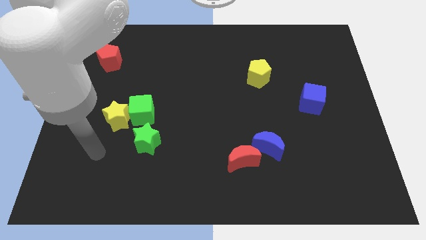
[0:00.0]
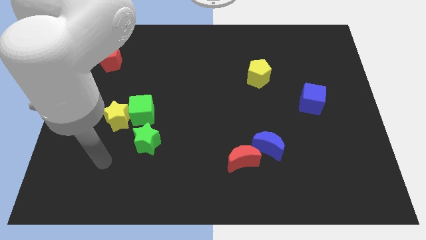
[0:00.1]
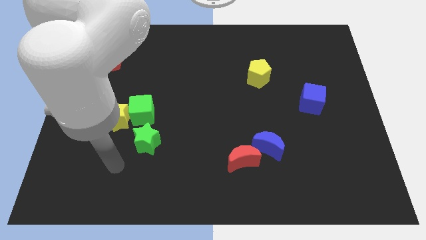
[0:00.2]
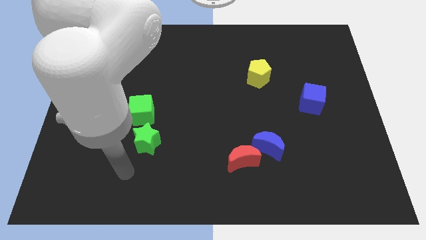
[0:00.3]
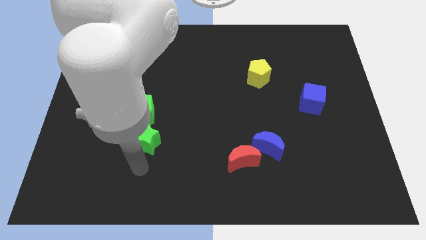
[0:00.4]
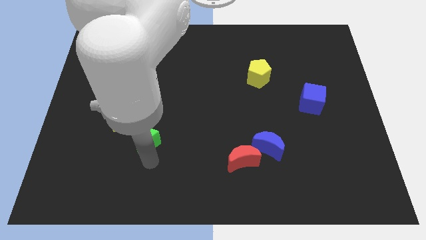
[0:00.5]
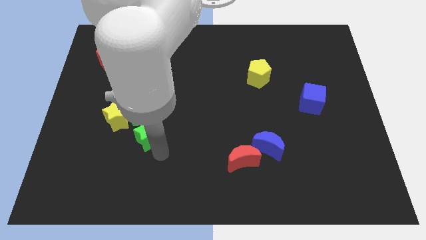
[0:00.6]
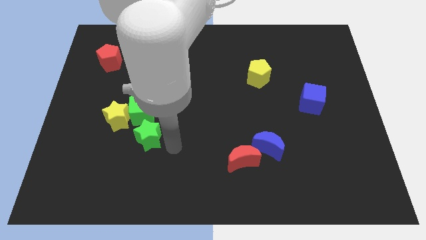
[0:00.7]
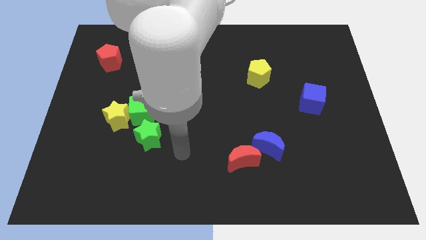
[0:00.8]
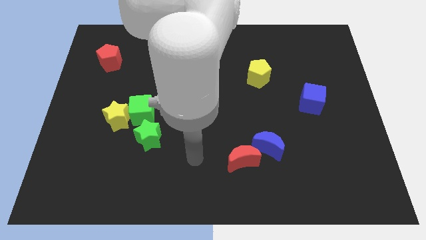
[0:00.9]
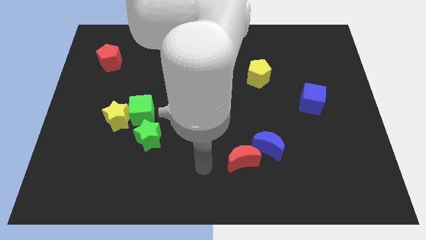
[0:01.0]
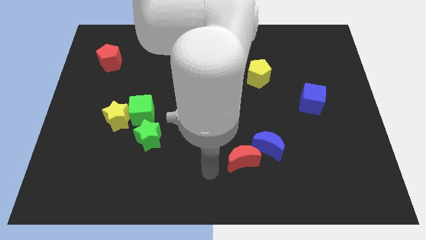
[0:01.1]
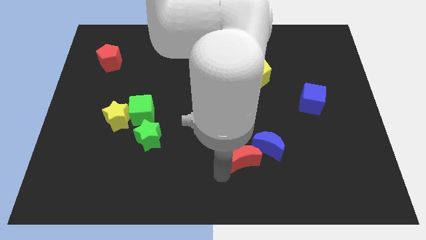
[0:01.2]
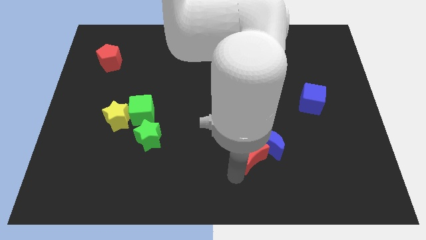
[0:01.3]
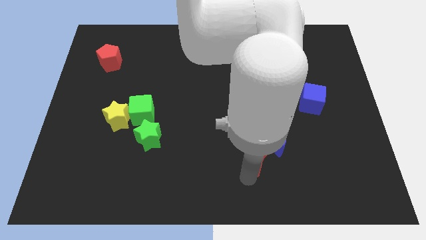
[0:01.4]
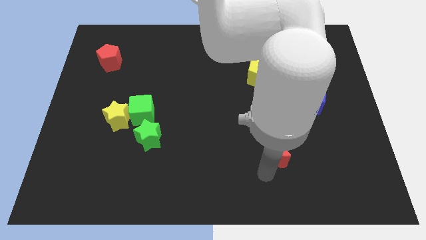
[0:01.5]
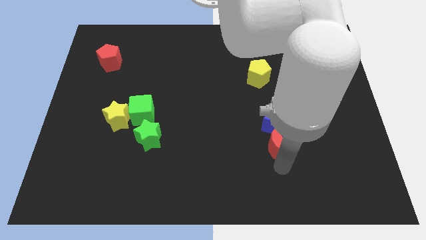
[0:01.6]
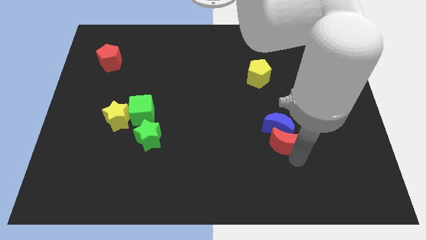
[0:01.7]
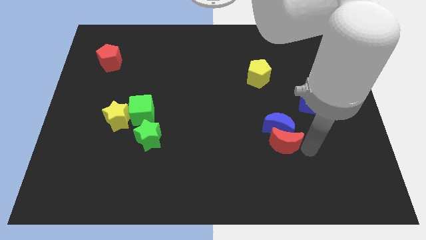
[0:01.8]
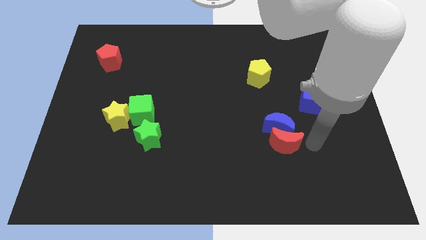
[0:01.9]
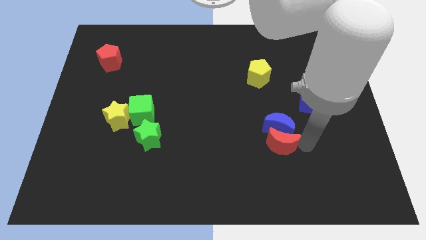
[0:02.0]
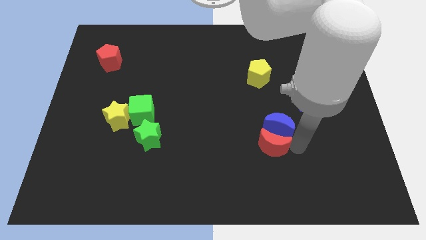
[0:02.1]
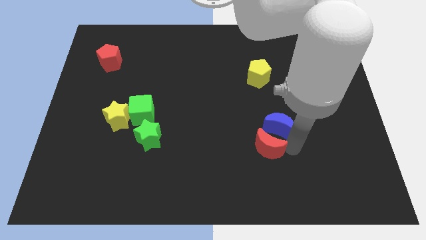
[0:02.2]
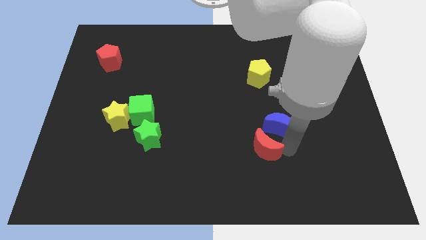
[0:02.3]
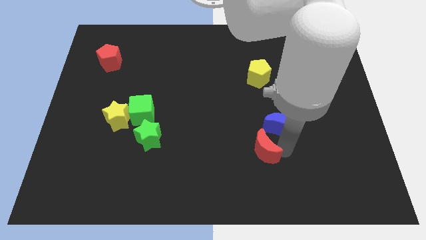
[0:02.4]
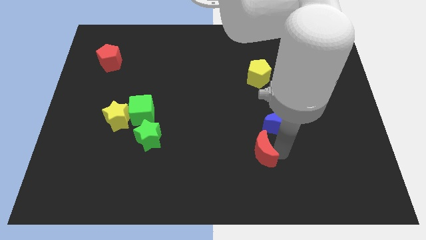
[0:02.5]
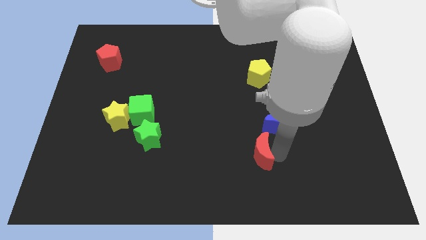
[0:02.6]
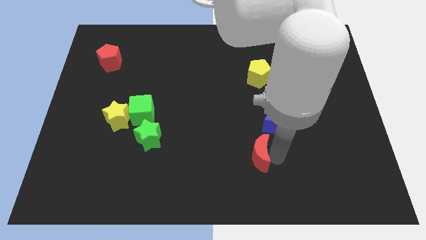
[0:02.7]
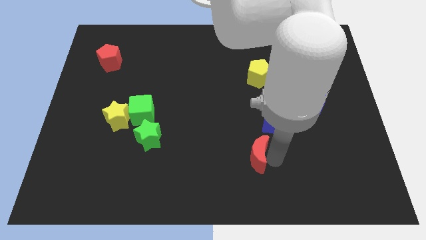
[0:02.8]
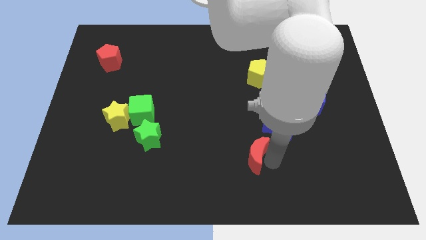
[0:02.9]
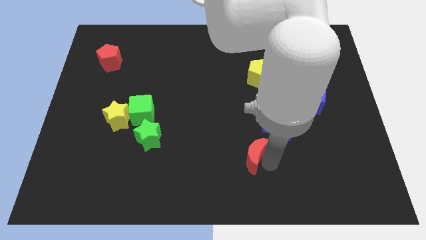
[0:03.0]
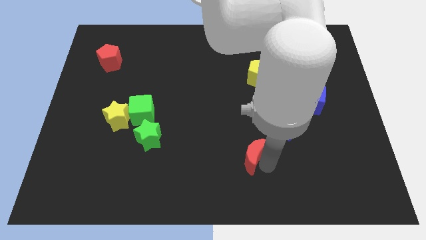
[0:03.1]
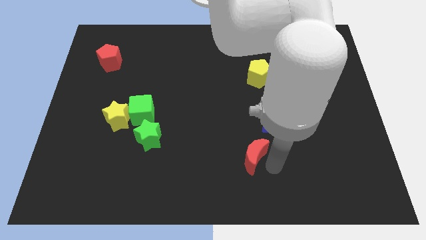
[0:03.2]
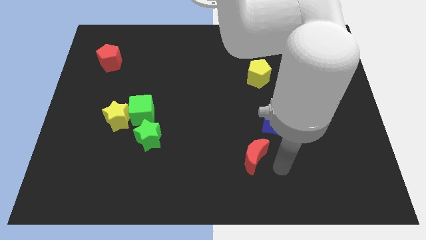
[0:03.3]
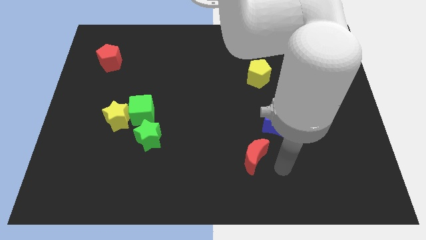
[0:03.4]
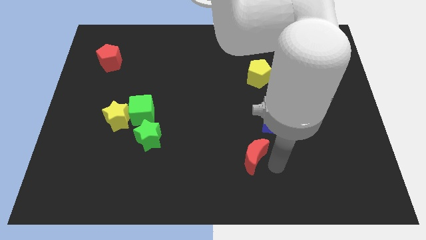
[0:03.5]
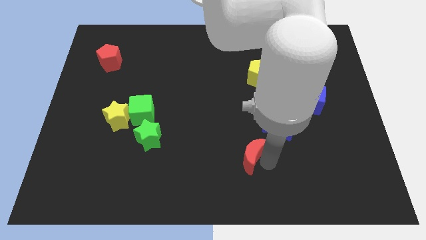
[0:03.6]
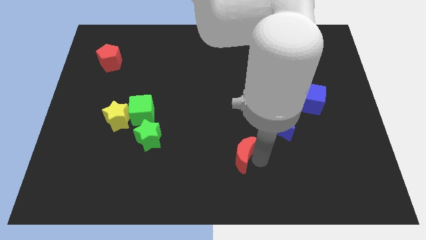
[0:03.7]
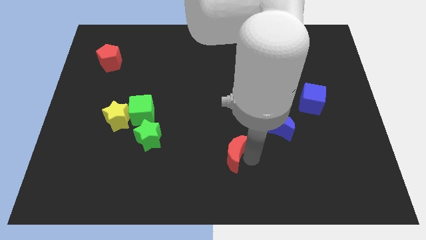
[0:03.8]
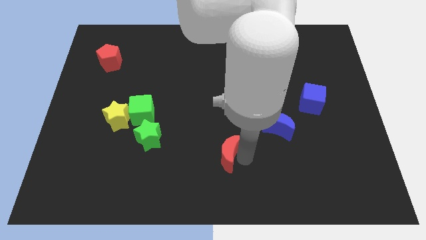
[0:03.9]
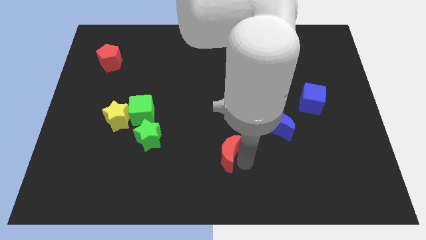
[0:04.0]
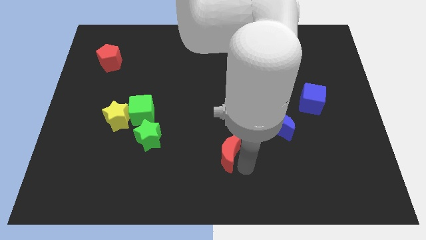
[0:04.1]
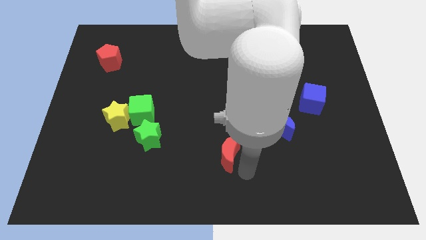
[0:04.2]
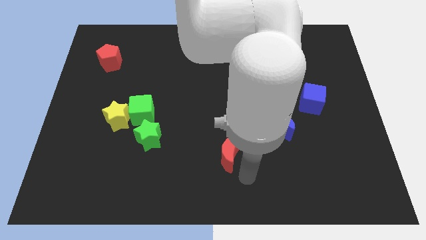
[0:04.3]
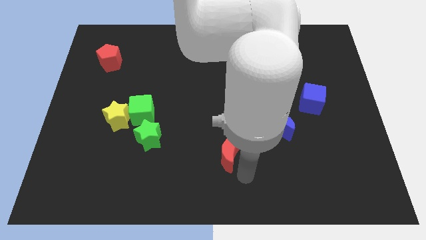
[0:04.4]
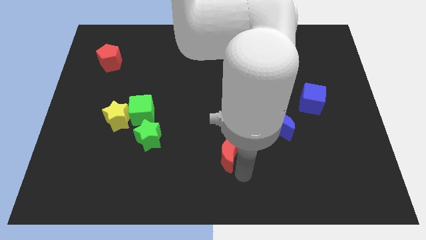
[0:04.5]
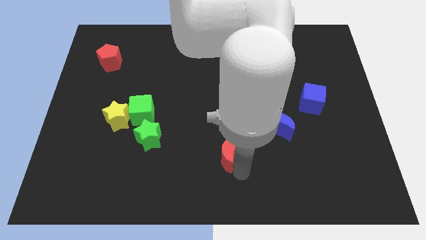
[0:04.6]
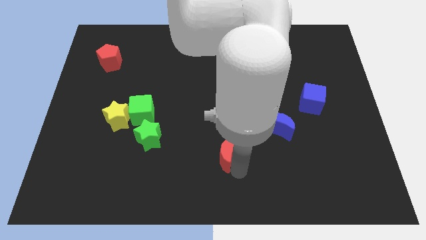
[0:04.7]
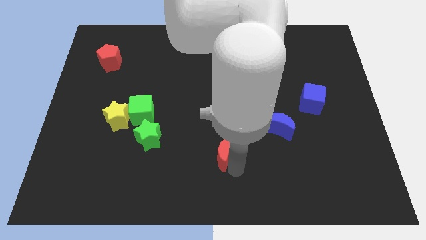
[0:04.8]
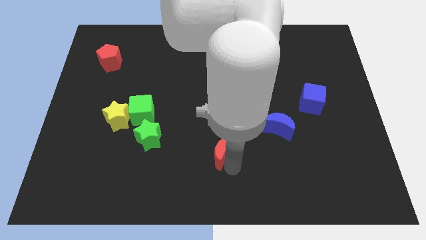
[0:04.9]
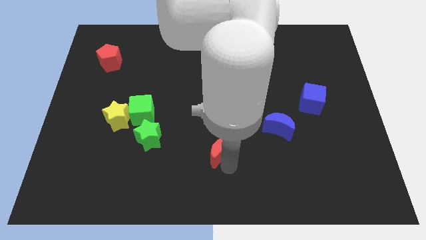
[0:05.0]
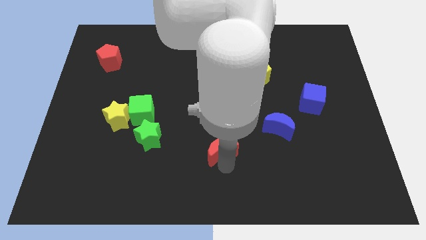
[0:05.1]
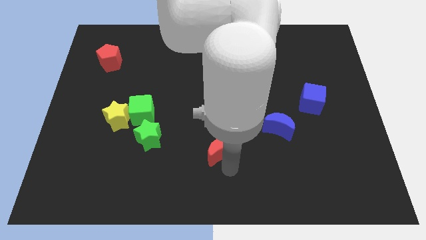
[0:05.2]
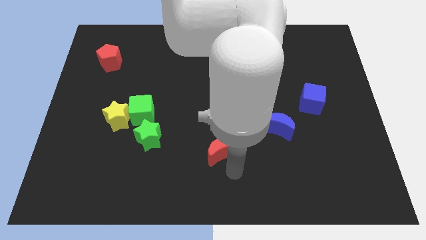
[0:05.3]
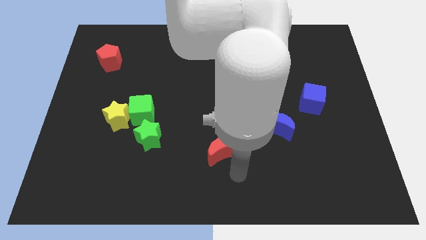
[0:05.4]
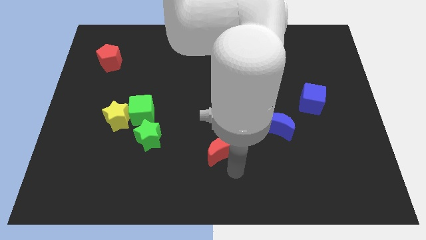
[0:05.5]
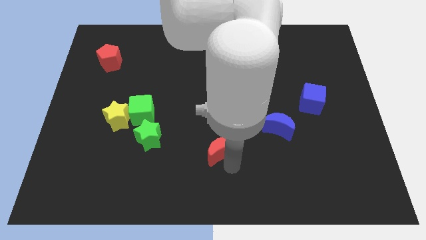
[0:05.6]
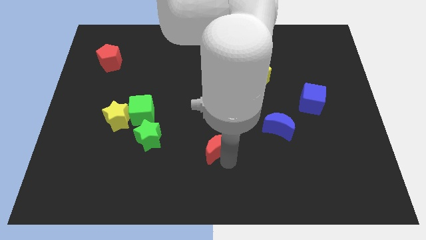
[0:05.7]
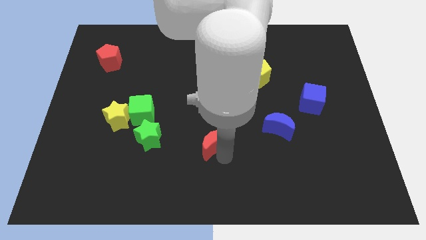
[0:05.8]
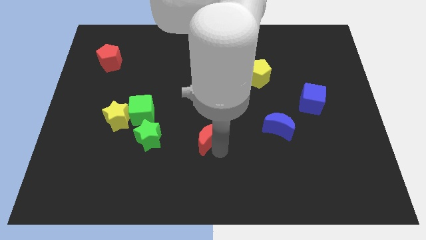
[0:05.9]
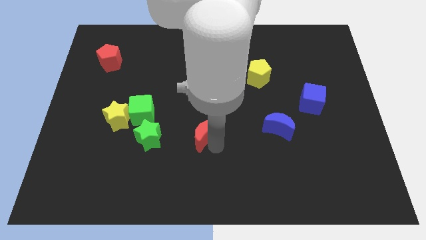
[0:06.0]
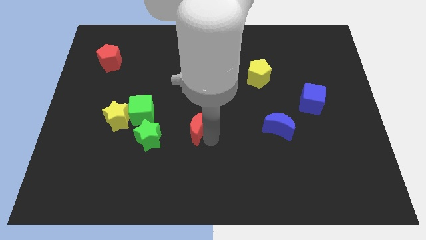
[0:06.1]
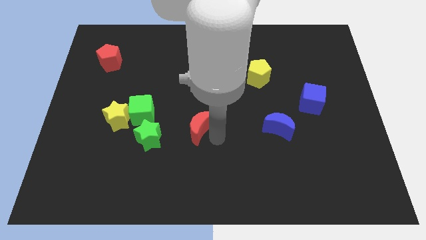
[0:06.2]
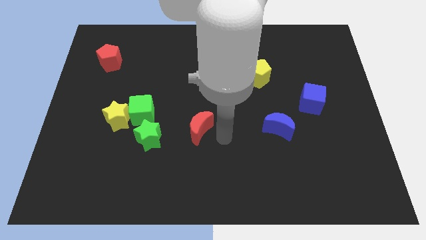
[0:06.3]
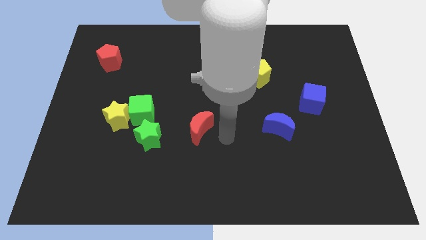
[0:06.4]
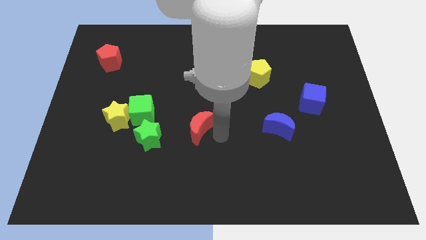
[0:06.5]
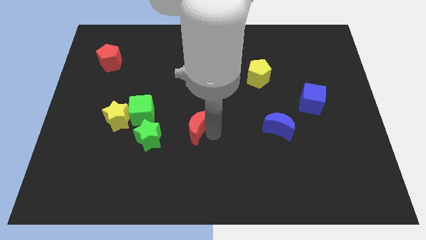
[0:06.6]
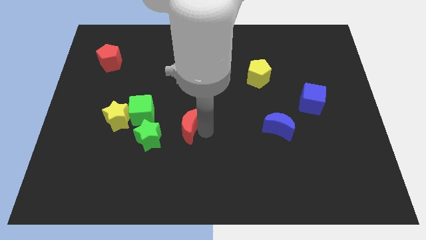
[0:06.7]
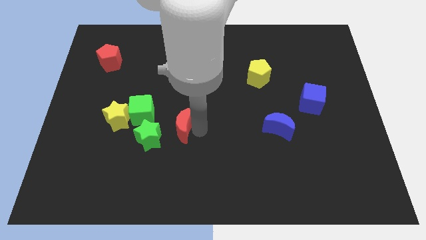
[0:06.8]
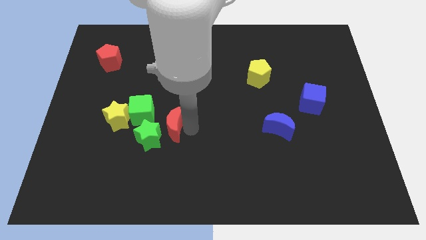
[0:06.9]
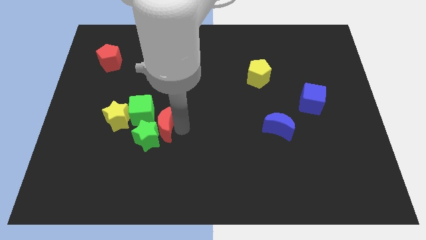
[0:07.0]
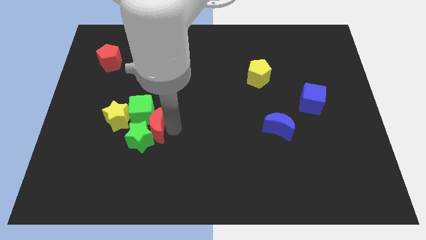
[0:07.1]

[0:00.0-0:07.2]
move the red moon close to the green cube
